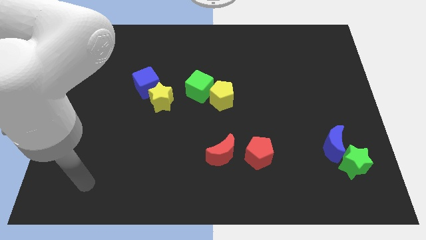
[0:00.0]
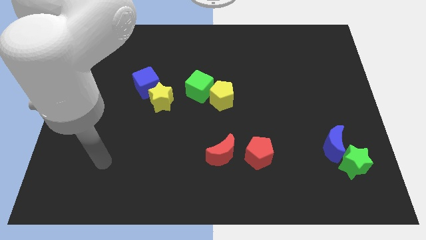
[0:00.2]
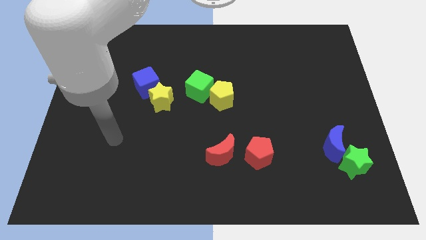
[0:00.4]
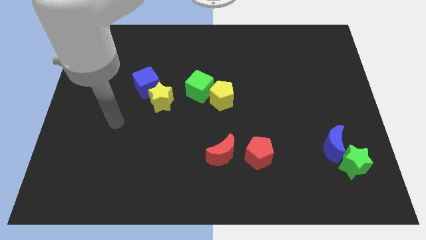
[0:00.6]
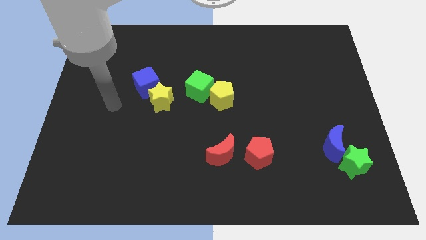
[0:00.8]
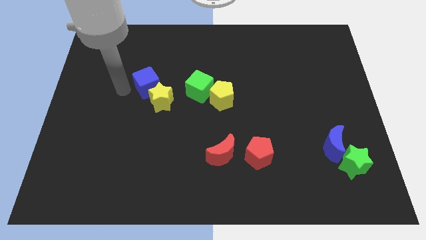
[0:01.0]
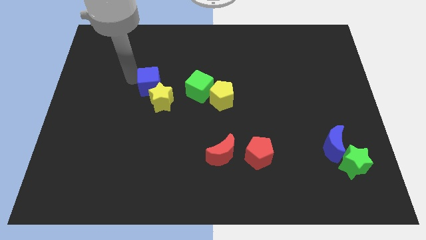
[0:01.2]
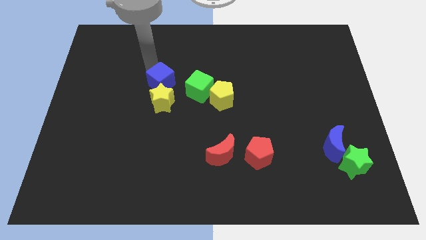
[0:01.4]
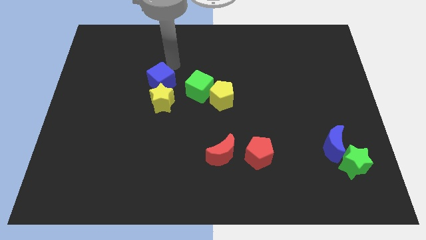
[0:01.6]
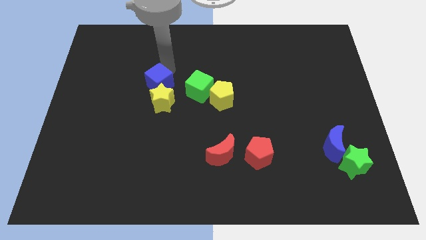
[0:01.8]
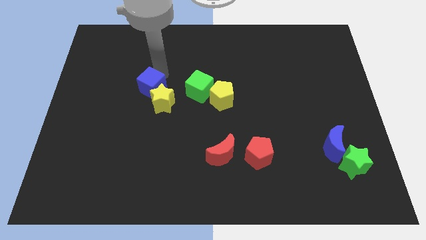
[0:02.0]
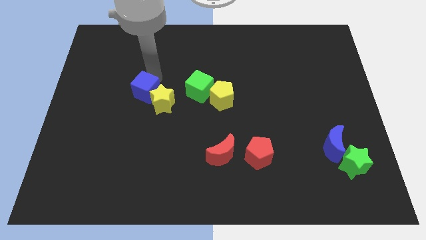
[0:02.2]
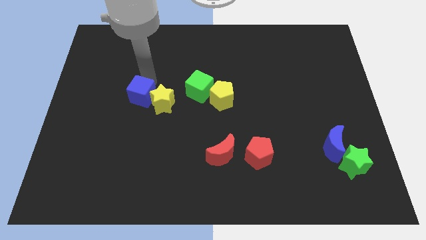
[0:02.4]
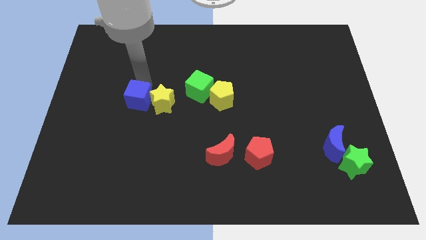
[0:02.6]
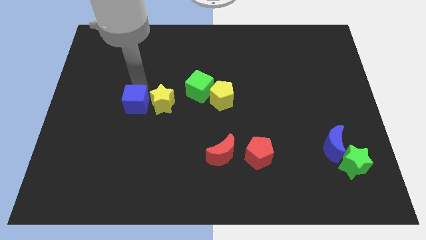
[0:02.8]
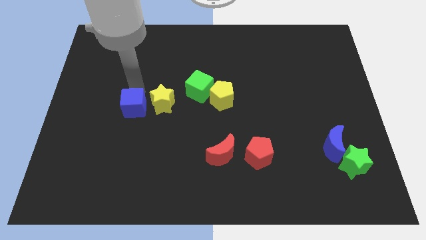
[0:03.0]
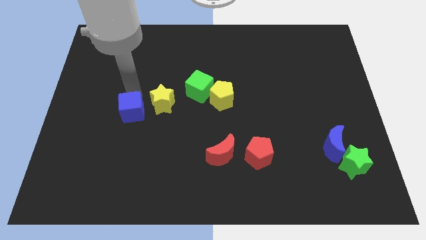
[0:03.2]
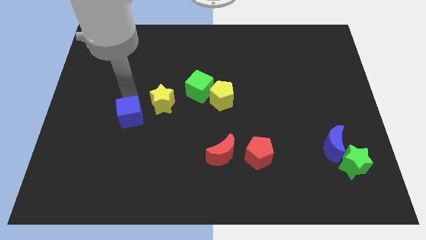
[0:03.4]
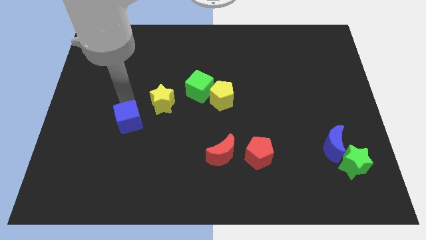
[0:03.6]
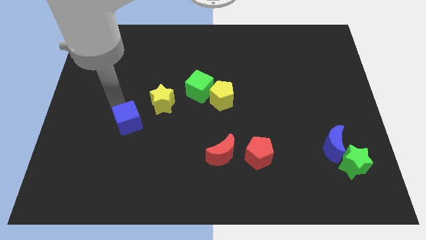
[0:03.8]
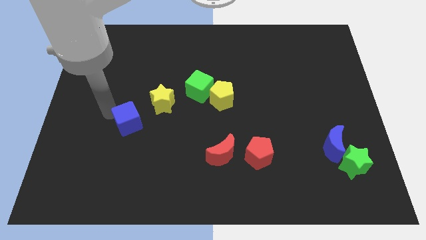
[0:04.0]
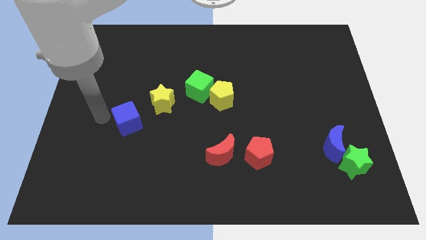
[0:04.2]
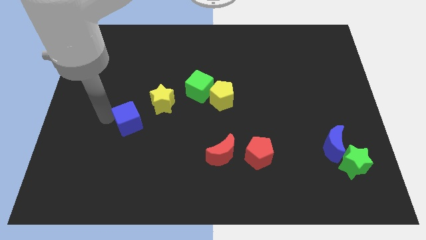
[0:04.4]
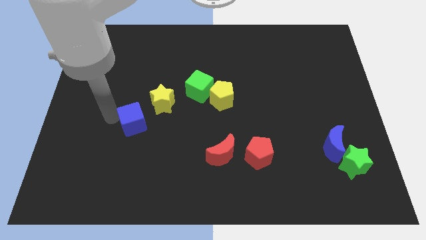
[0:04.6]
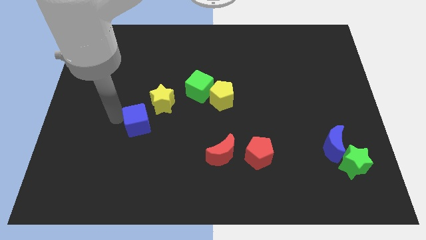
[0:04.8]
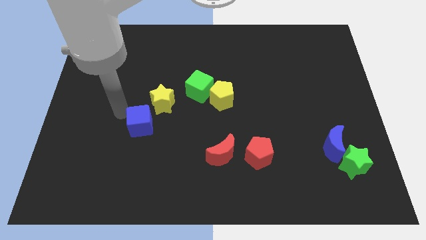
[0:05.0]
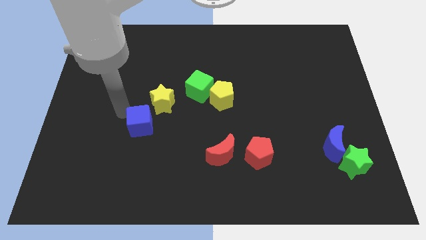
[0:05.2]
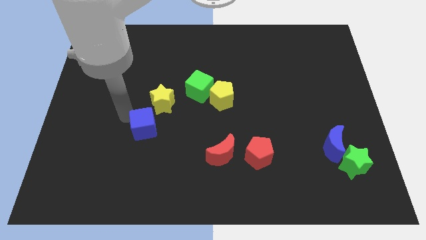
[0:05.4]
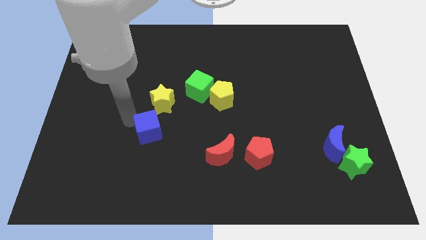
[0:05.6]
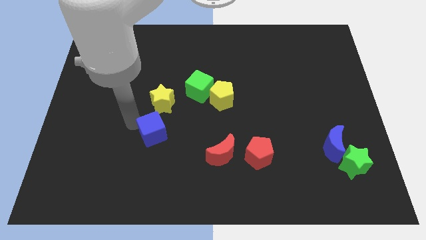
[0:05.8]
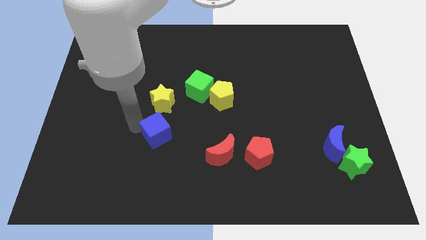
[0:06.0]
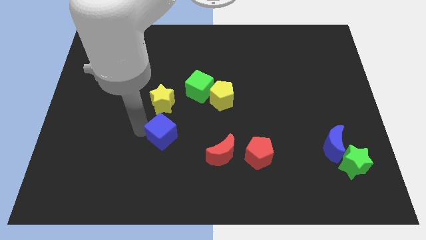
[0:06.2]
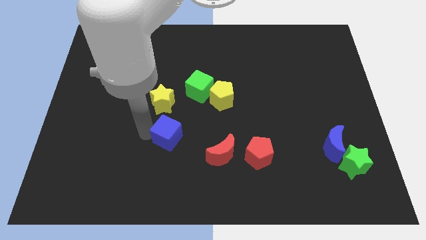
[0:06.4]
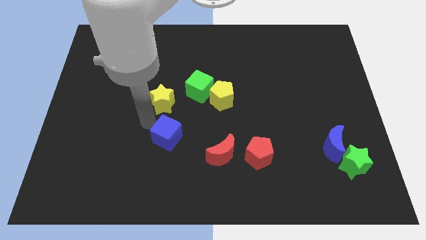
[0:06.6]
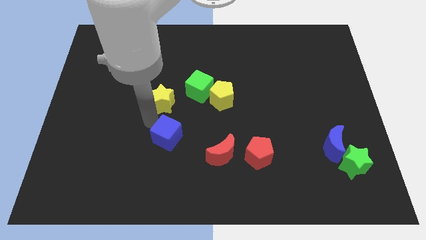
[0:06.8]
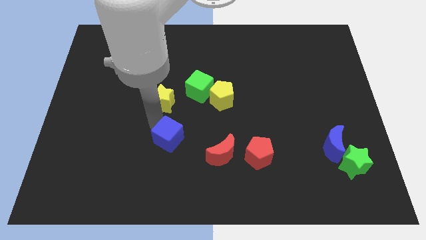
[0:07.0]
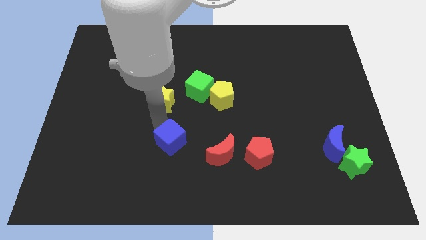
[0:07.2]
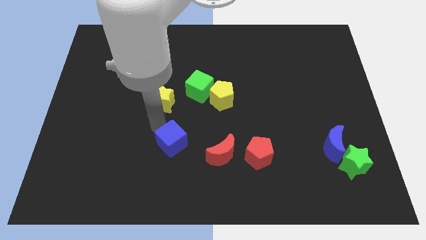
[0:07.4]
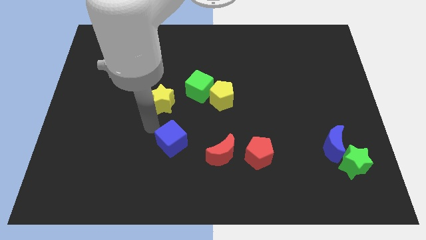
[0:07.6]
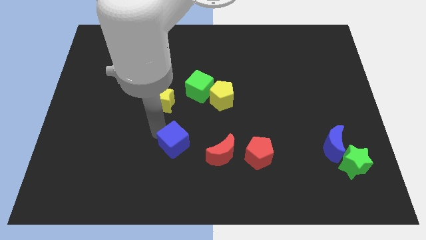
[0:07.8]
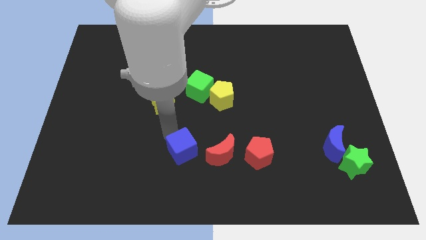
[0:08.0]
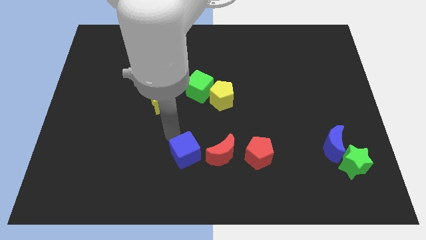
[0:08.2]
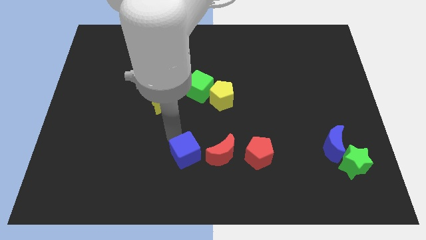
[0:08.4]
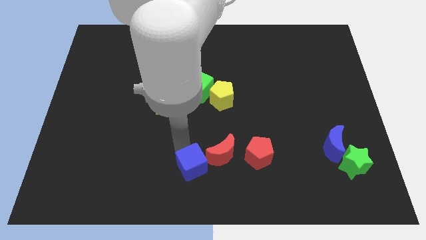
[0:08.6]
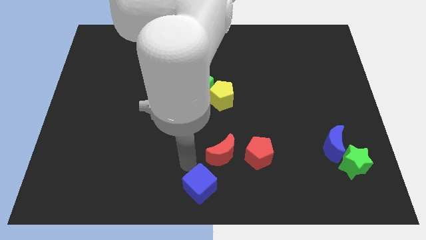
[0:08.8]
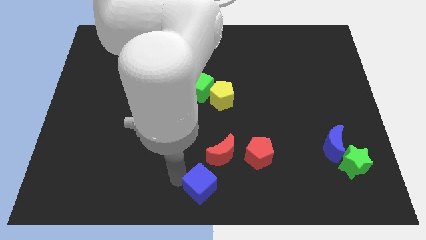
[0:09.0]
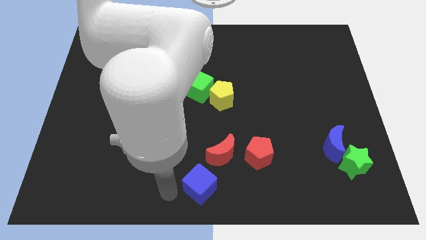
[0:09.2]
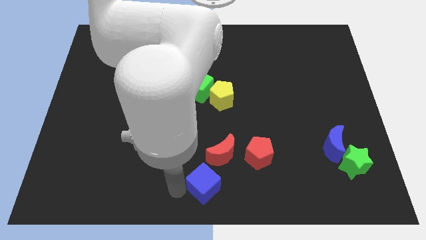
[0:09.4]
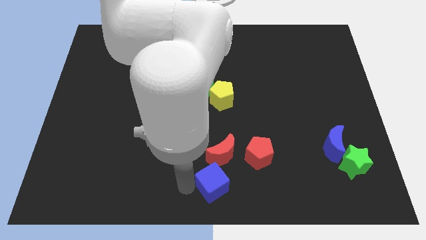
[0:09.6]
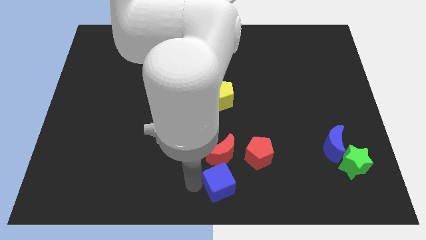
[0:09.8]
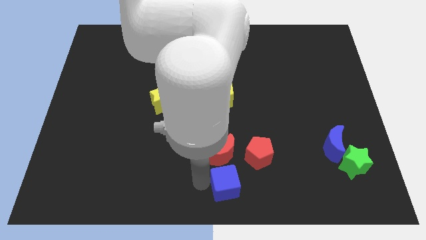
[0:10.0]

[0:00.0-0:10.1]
slide the blue cube to the bottom right side of the red moon

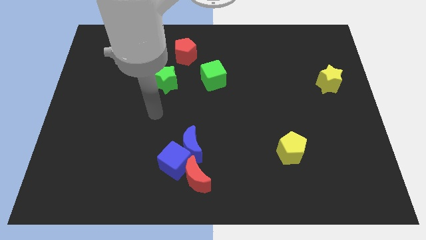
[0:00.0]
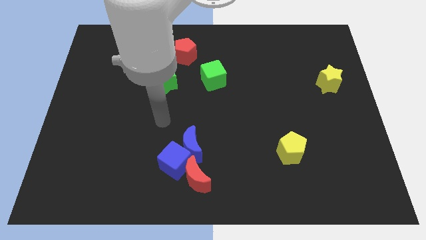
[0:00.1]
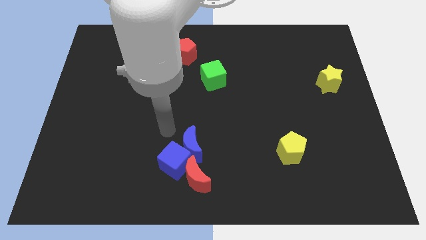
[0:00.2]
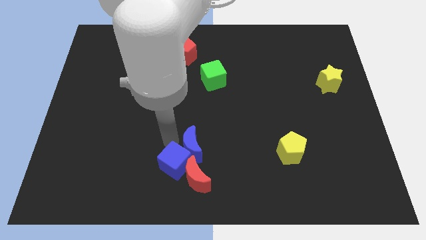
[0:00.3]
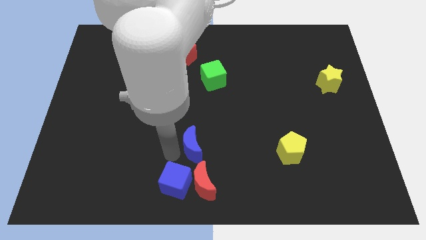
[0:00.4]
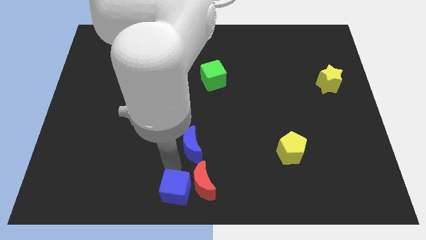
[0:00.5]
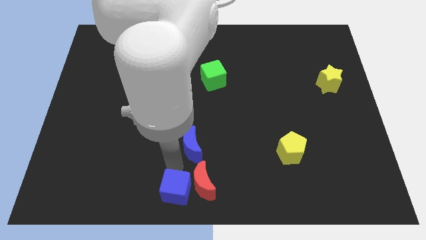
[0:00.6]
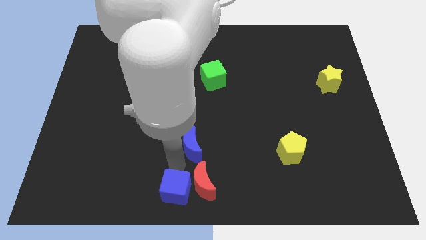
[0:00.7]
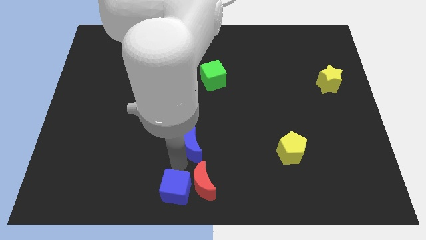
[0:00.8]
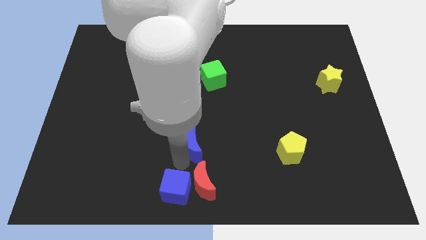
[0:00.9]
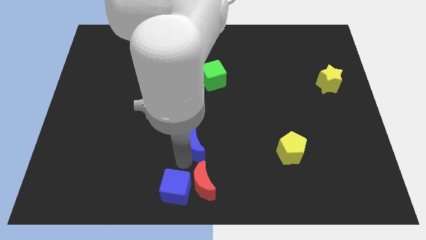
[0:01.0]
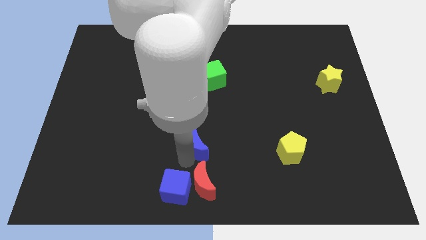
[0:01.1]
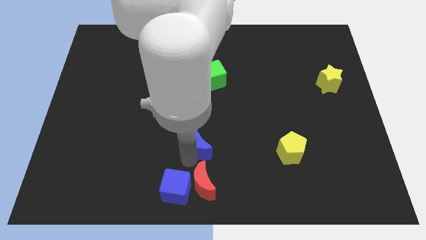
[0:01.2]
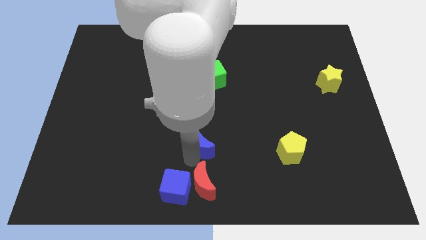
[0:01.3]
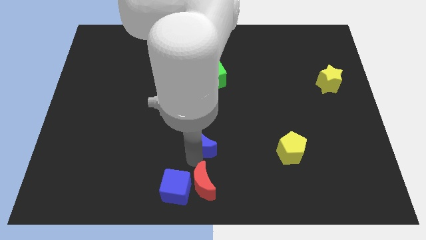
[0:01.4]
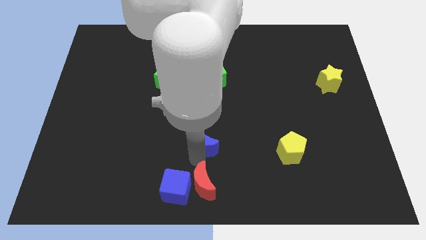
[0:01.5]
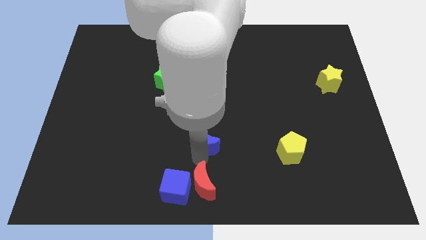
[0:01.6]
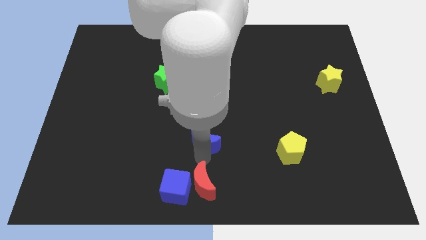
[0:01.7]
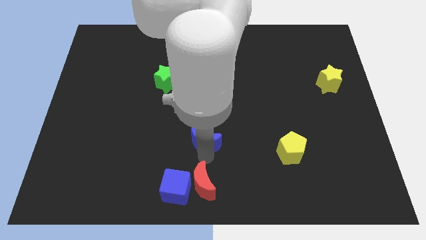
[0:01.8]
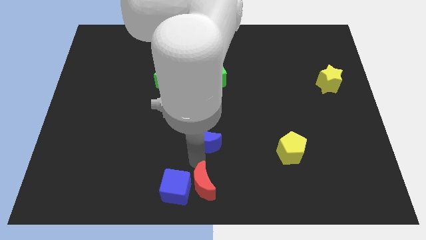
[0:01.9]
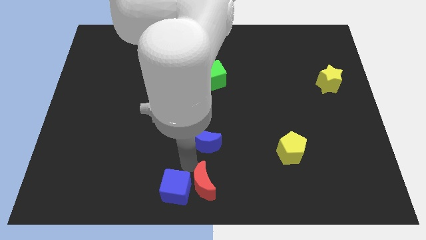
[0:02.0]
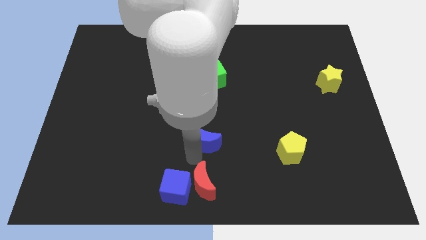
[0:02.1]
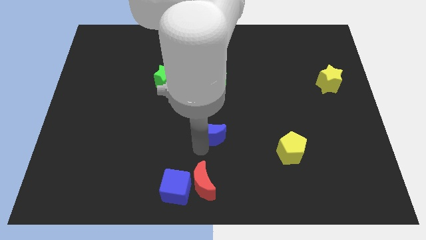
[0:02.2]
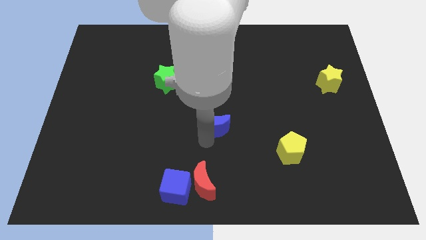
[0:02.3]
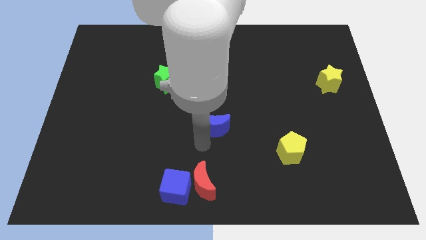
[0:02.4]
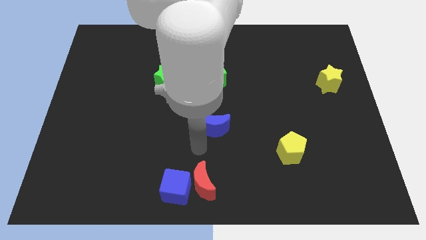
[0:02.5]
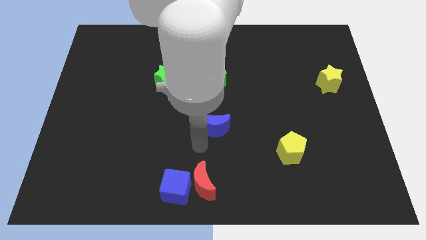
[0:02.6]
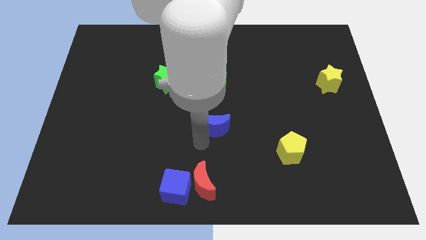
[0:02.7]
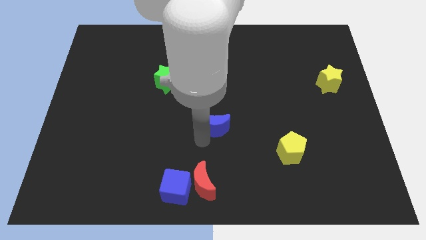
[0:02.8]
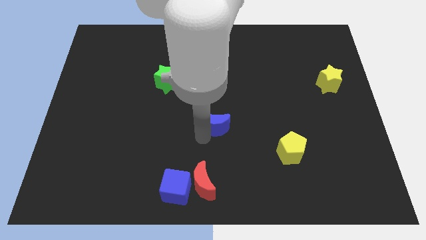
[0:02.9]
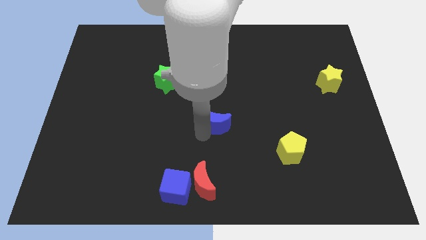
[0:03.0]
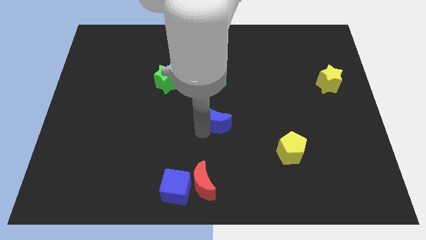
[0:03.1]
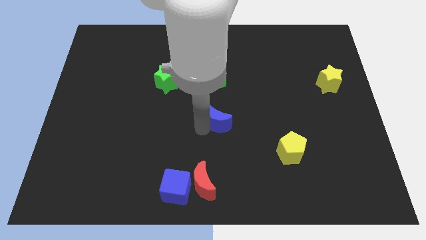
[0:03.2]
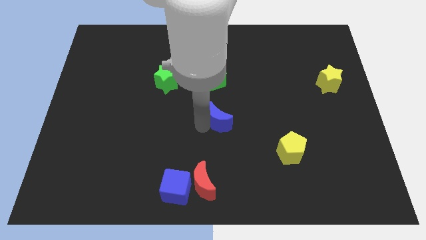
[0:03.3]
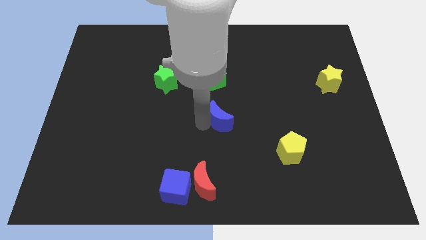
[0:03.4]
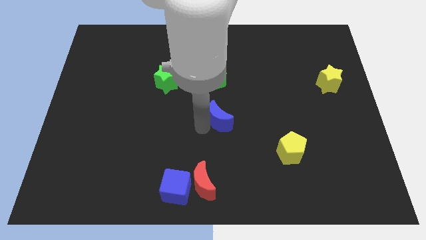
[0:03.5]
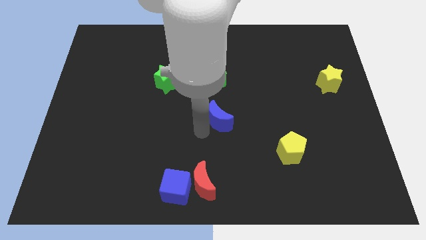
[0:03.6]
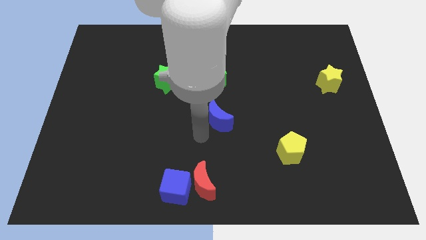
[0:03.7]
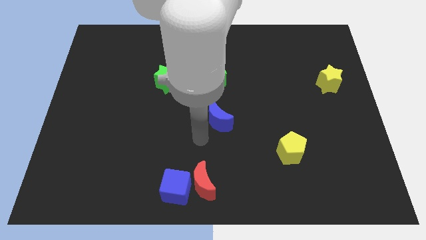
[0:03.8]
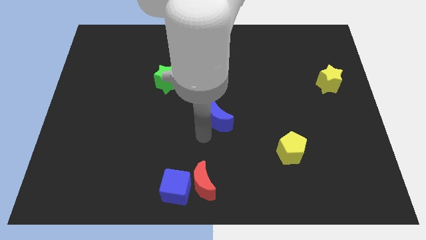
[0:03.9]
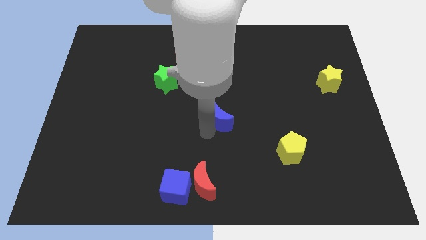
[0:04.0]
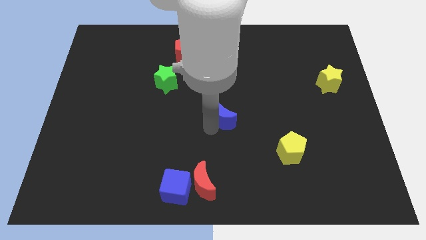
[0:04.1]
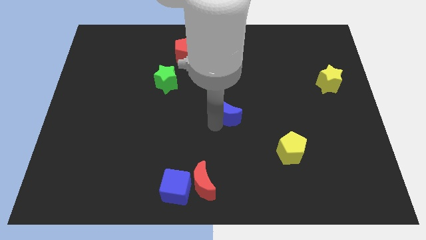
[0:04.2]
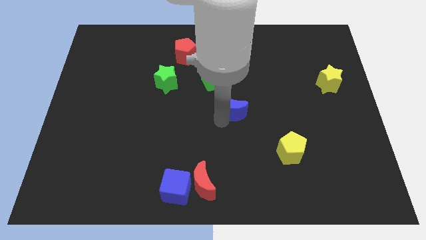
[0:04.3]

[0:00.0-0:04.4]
put the blue moon to the bottom right of the green cube
